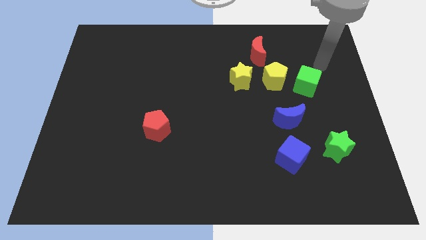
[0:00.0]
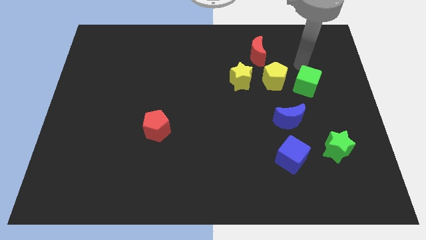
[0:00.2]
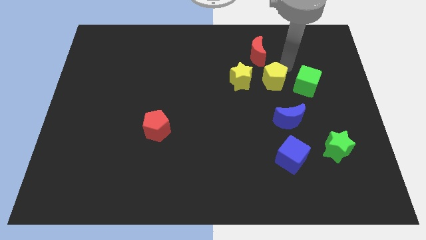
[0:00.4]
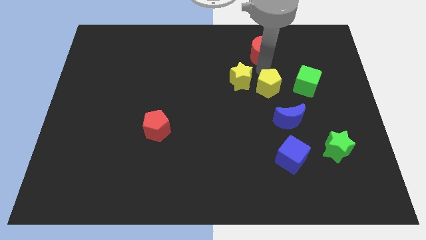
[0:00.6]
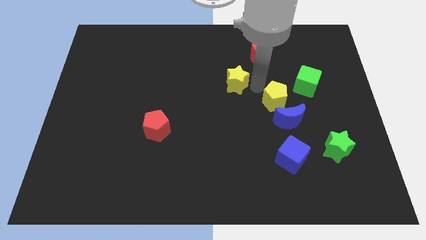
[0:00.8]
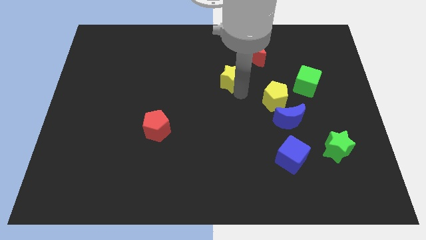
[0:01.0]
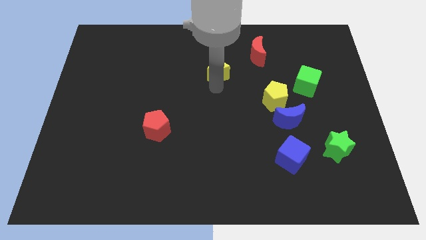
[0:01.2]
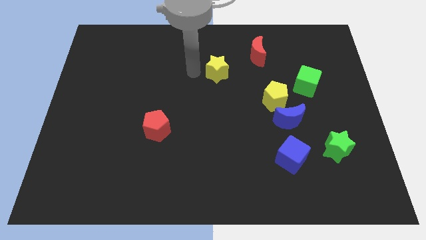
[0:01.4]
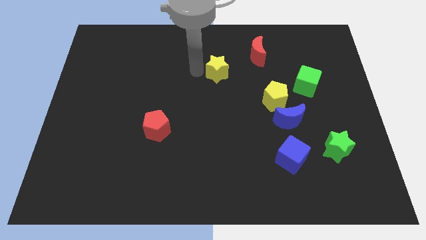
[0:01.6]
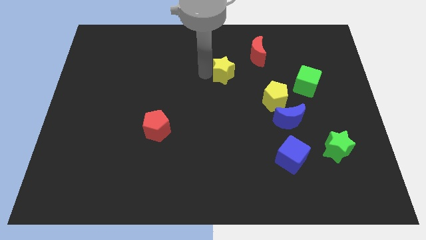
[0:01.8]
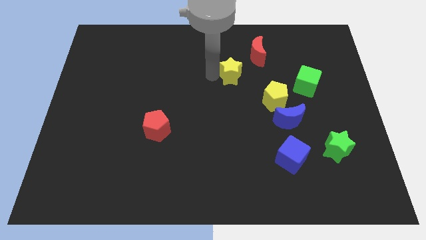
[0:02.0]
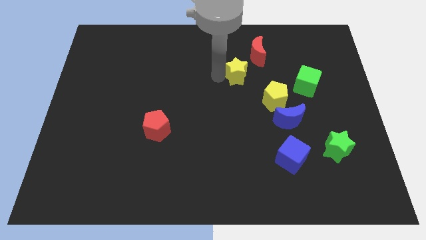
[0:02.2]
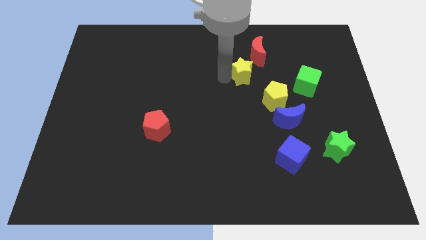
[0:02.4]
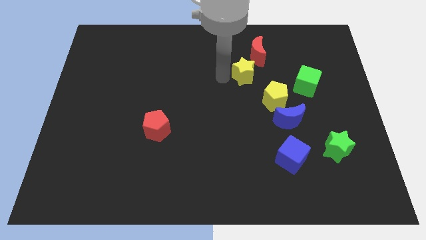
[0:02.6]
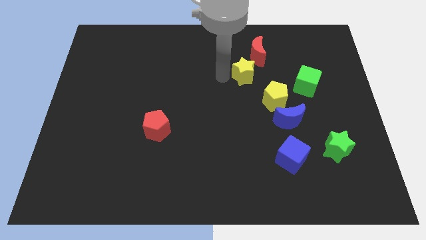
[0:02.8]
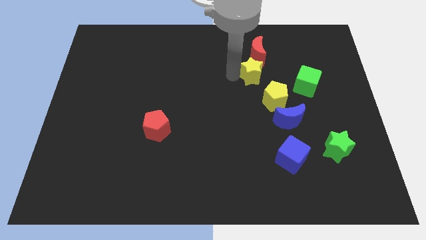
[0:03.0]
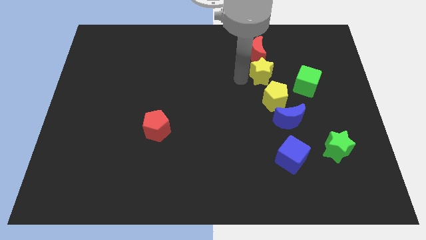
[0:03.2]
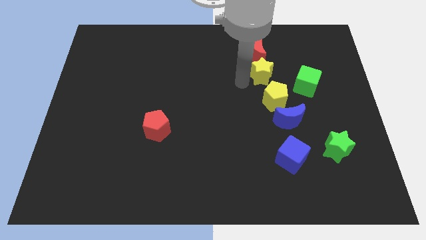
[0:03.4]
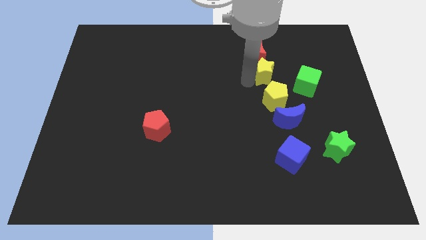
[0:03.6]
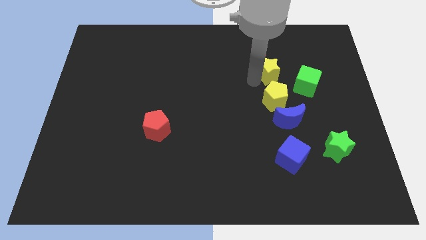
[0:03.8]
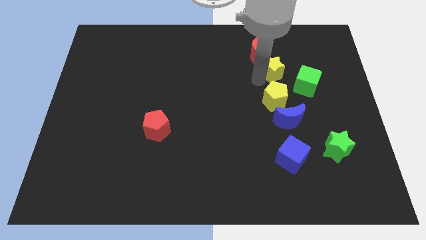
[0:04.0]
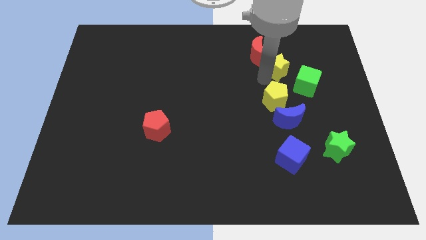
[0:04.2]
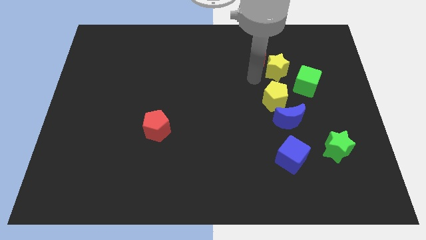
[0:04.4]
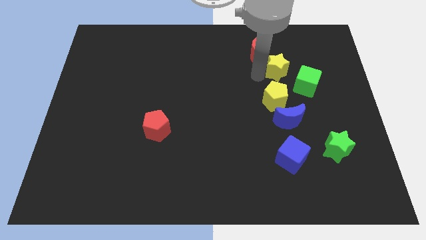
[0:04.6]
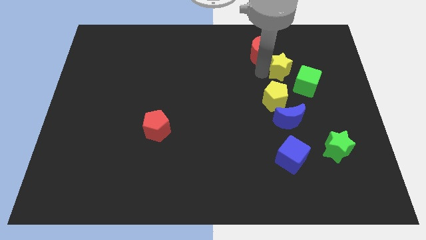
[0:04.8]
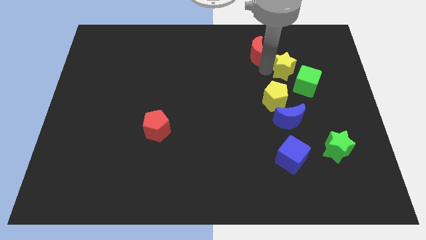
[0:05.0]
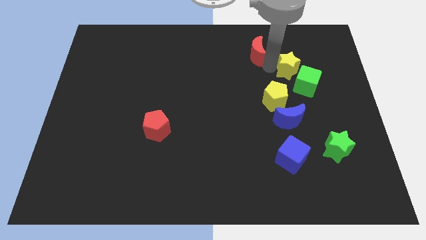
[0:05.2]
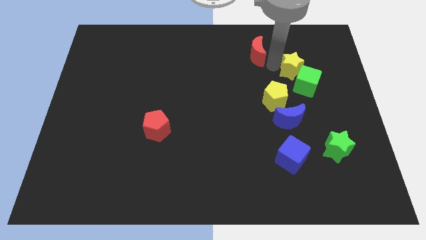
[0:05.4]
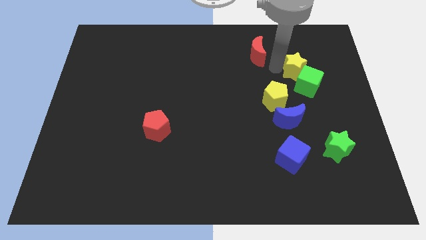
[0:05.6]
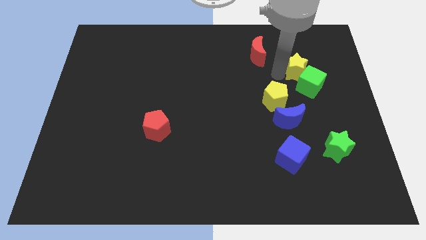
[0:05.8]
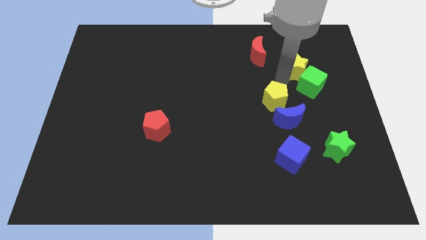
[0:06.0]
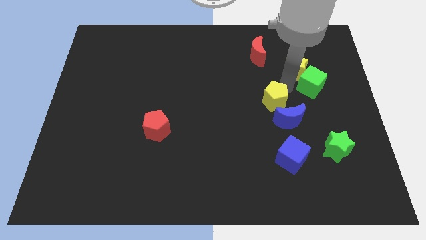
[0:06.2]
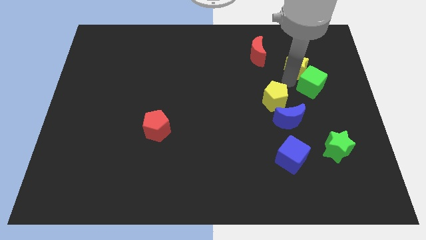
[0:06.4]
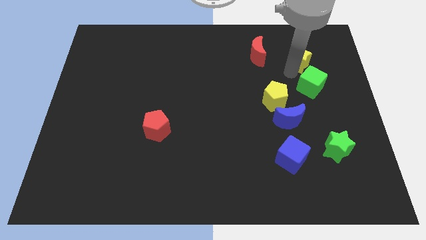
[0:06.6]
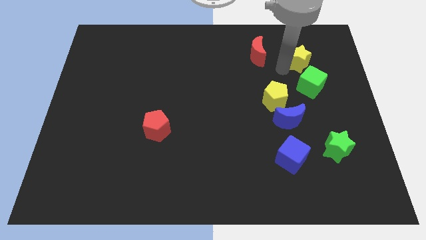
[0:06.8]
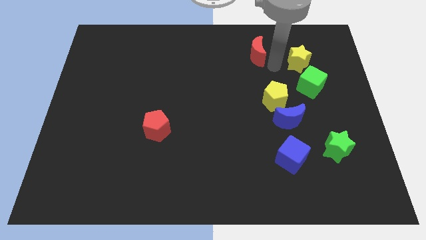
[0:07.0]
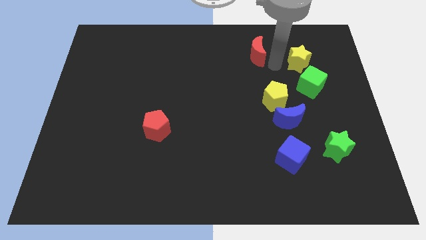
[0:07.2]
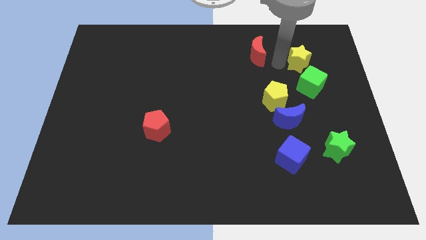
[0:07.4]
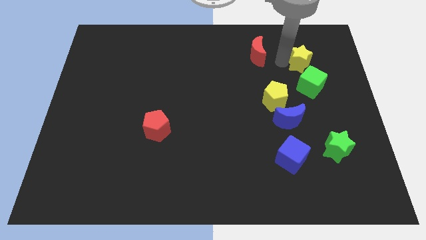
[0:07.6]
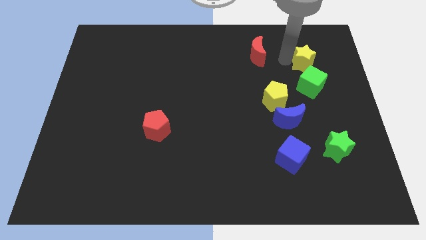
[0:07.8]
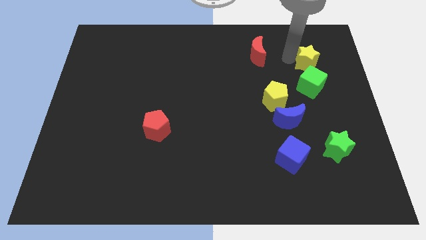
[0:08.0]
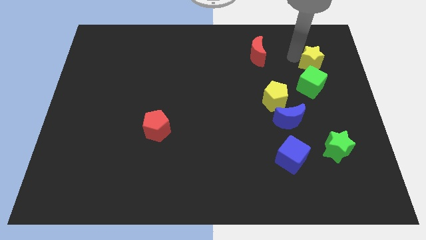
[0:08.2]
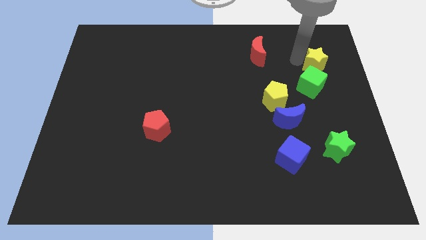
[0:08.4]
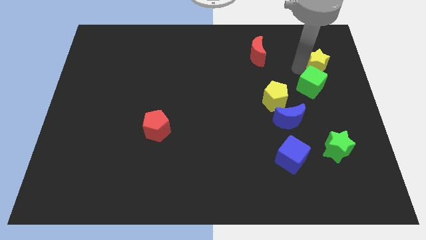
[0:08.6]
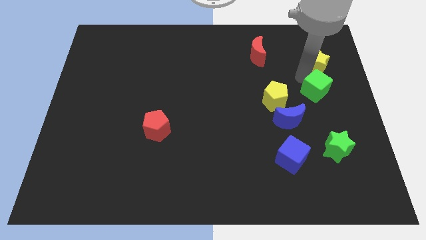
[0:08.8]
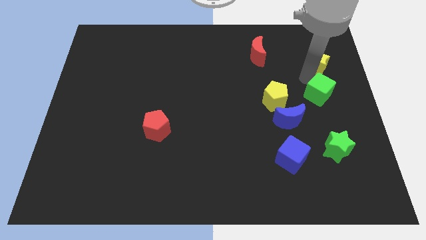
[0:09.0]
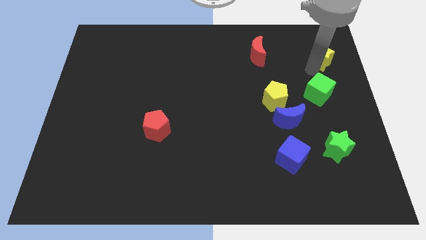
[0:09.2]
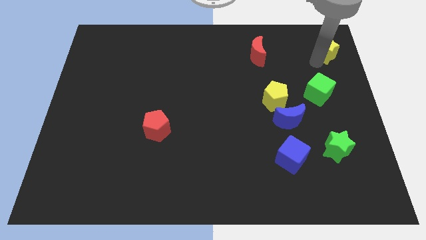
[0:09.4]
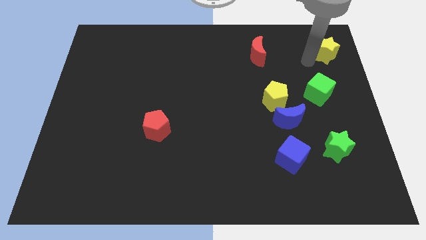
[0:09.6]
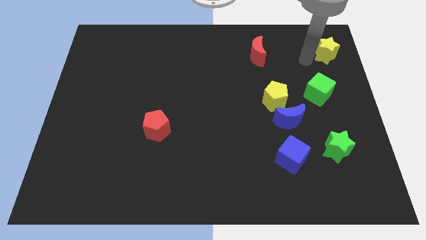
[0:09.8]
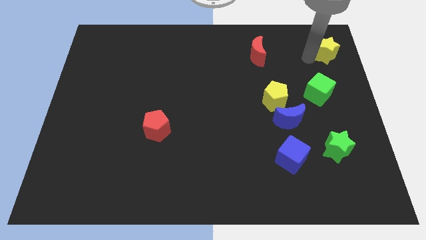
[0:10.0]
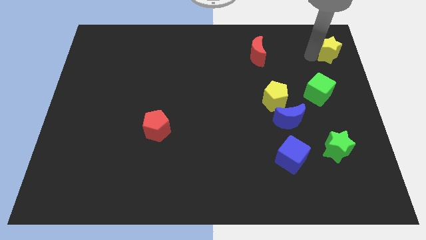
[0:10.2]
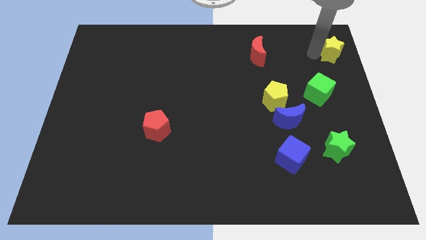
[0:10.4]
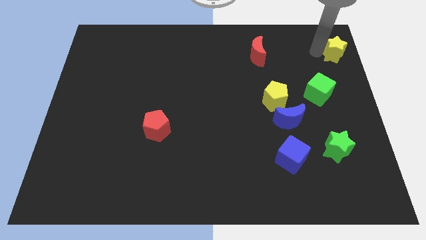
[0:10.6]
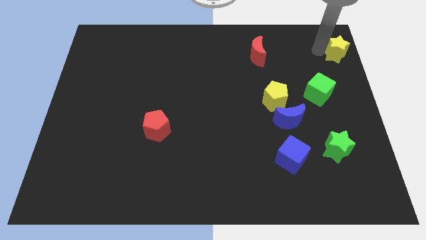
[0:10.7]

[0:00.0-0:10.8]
put the yellow star to the top right

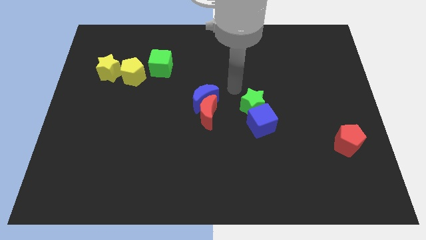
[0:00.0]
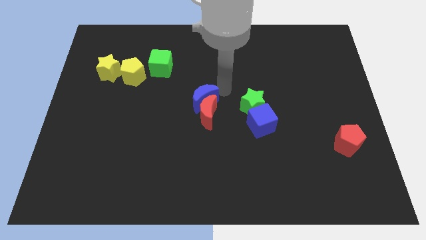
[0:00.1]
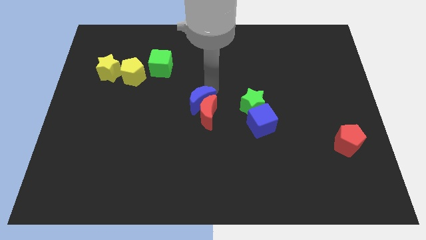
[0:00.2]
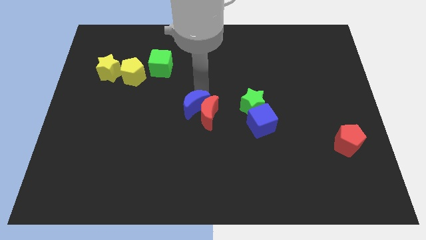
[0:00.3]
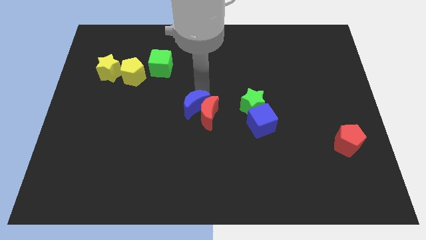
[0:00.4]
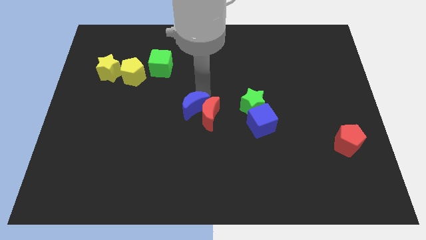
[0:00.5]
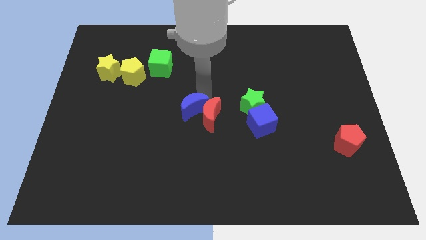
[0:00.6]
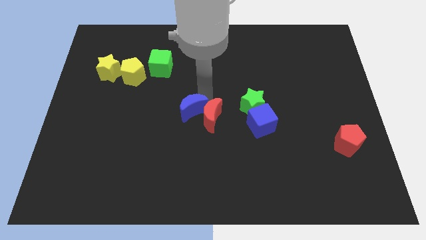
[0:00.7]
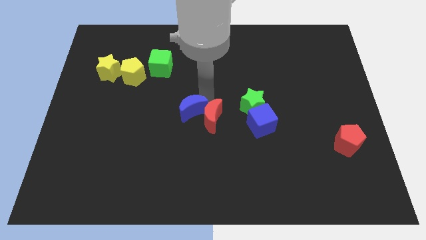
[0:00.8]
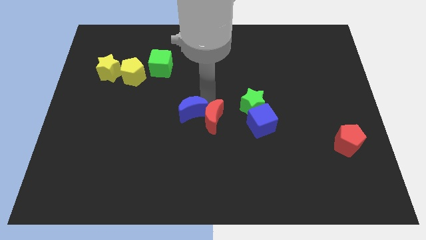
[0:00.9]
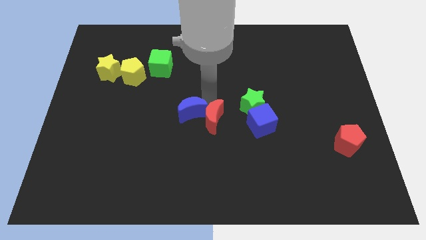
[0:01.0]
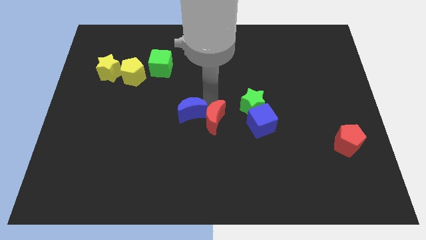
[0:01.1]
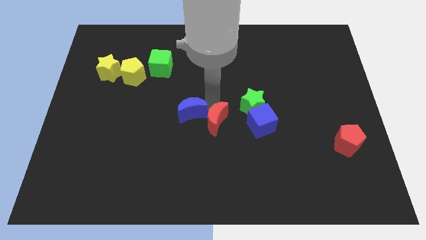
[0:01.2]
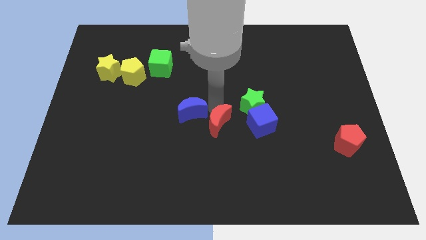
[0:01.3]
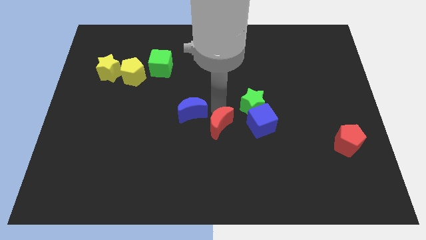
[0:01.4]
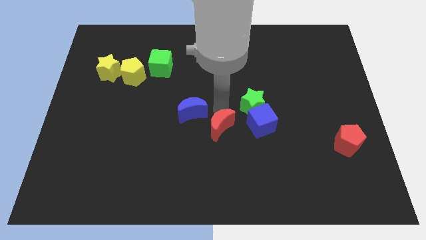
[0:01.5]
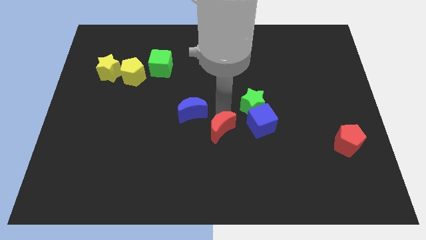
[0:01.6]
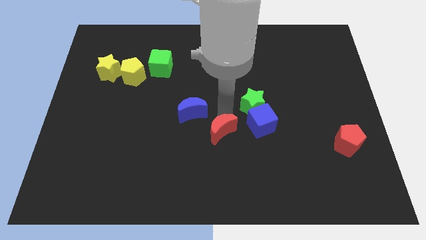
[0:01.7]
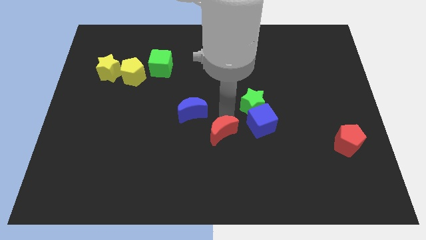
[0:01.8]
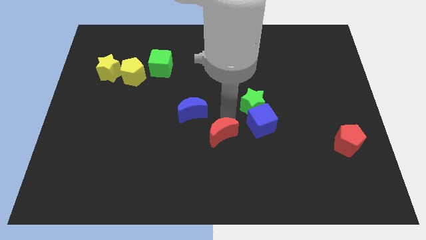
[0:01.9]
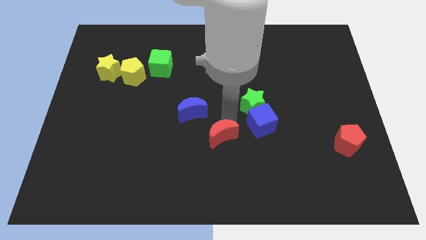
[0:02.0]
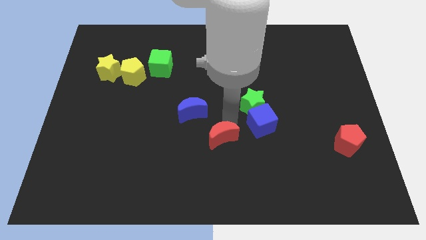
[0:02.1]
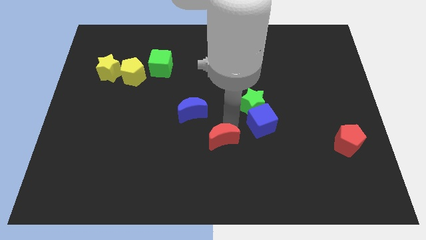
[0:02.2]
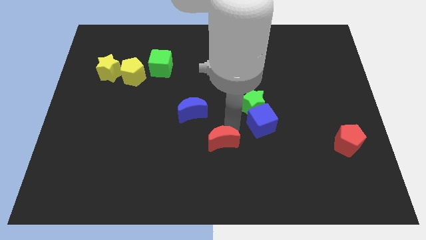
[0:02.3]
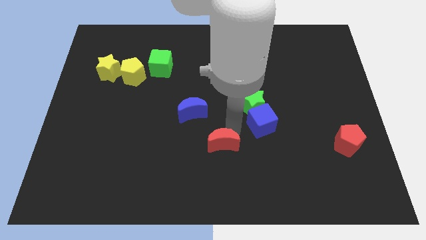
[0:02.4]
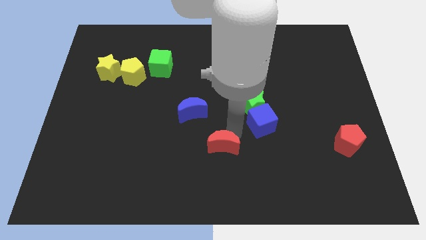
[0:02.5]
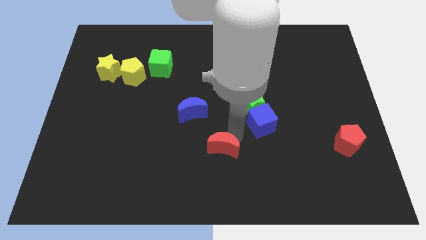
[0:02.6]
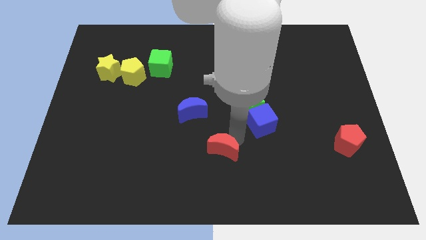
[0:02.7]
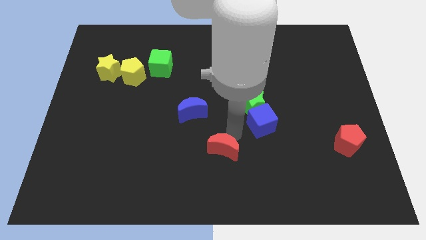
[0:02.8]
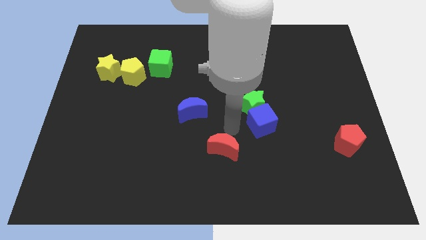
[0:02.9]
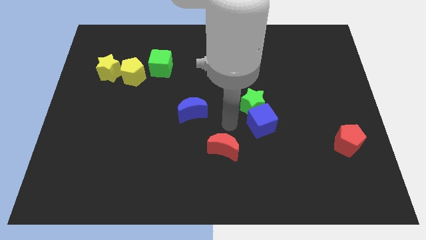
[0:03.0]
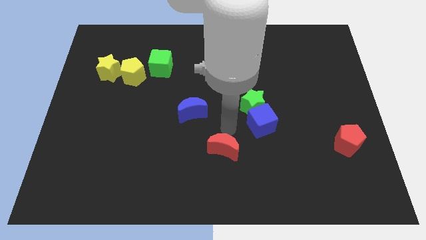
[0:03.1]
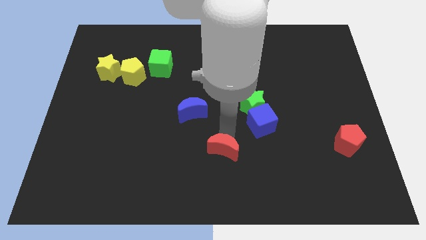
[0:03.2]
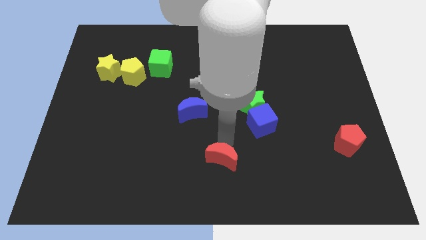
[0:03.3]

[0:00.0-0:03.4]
put the red moon to the bottom
